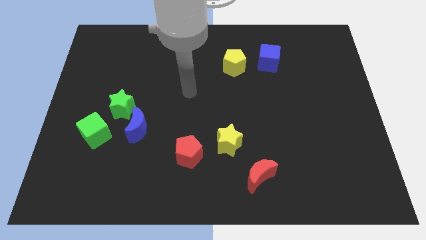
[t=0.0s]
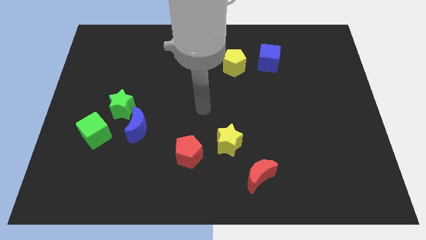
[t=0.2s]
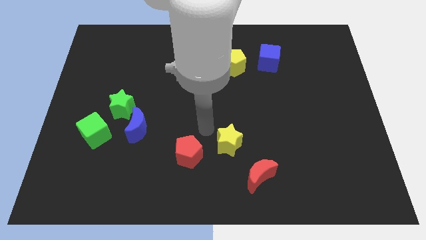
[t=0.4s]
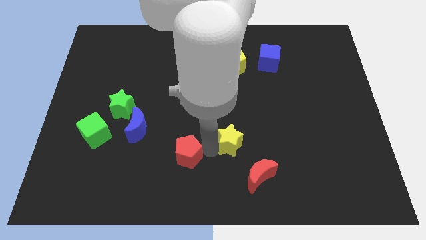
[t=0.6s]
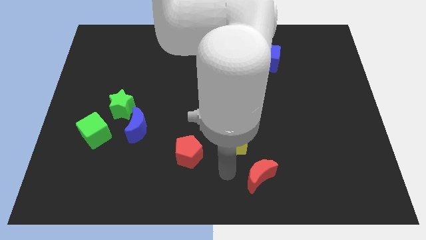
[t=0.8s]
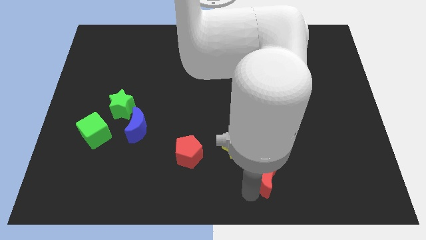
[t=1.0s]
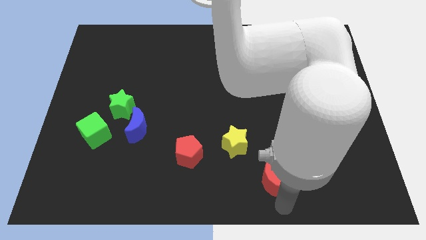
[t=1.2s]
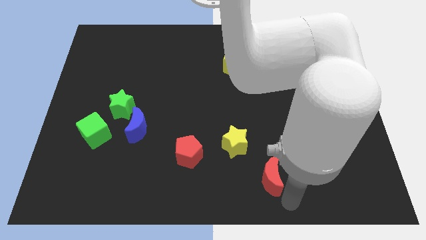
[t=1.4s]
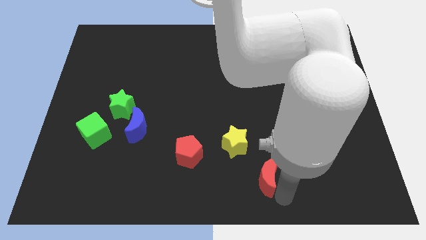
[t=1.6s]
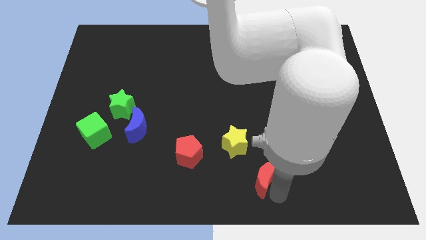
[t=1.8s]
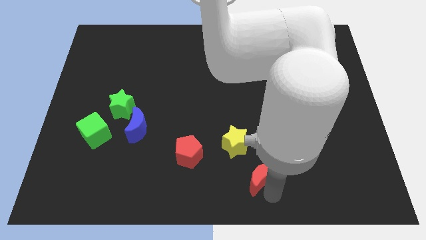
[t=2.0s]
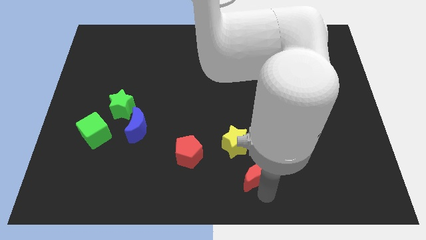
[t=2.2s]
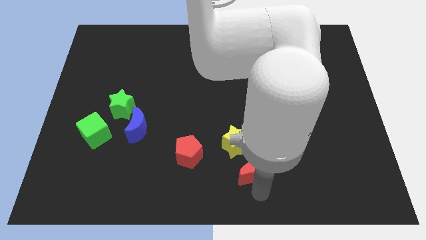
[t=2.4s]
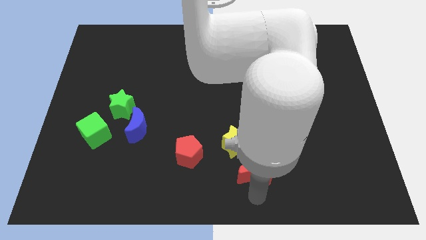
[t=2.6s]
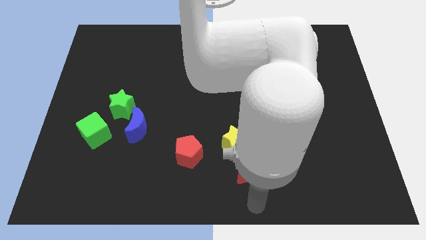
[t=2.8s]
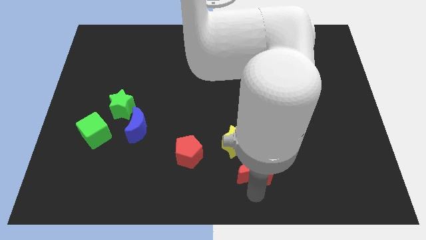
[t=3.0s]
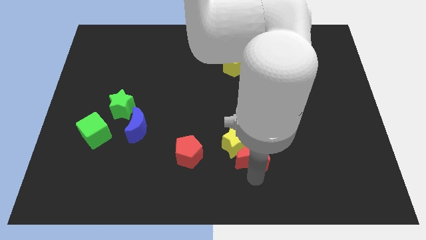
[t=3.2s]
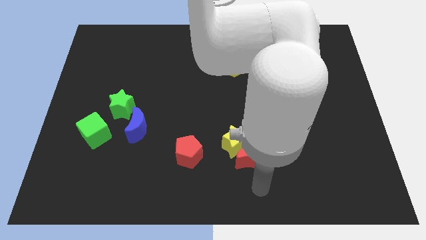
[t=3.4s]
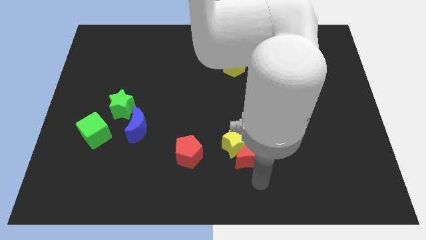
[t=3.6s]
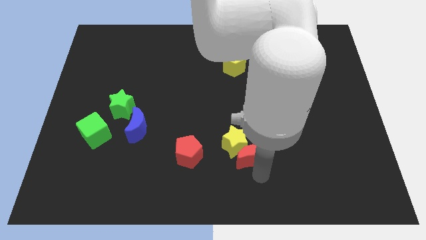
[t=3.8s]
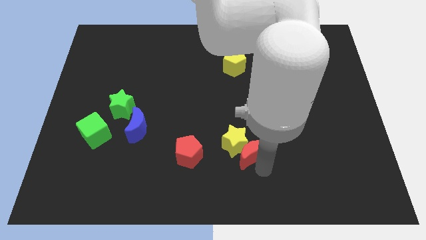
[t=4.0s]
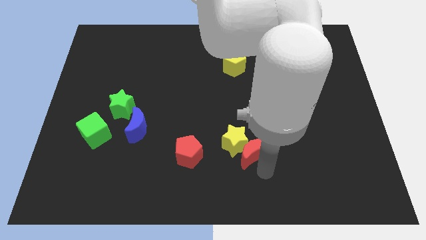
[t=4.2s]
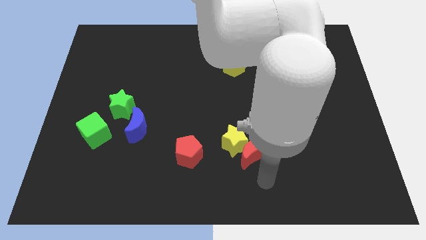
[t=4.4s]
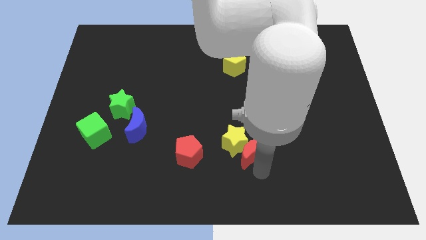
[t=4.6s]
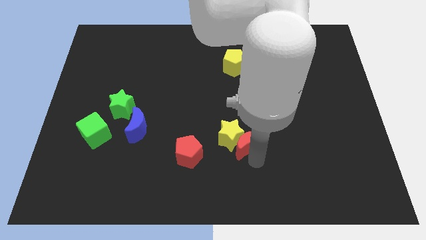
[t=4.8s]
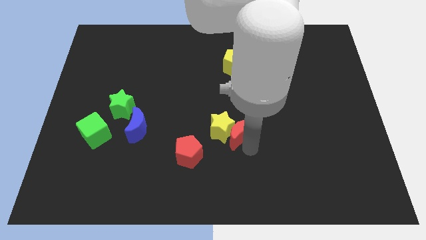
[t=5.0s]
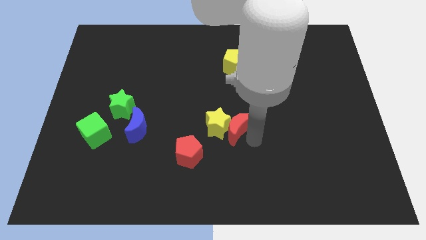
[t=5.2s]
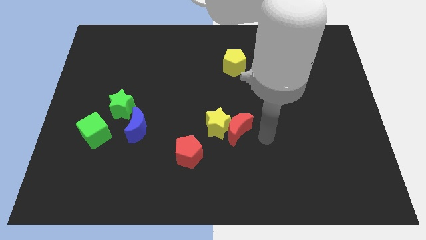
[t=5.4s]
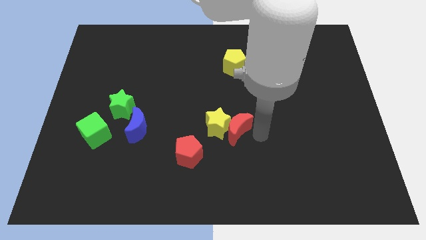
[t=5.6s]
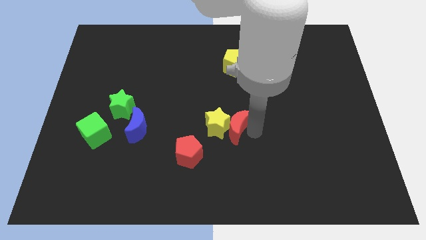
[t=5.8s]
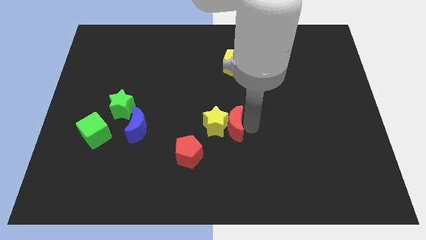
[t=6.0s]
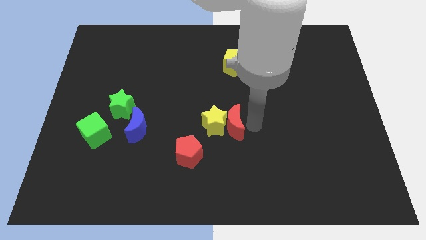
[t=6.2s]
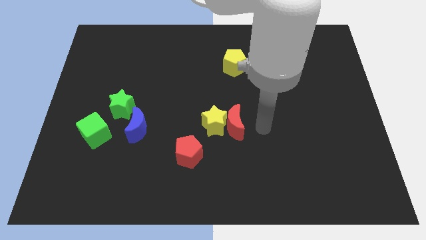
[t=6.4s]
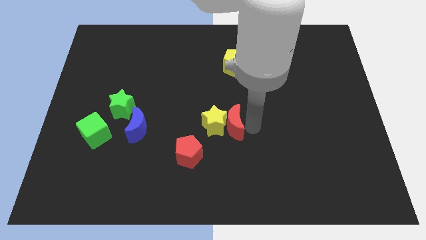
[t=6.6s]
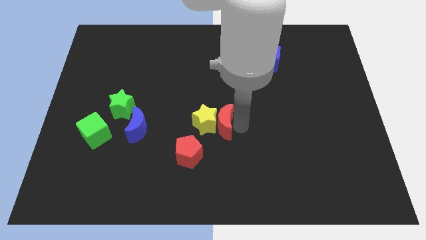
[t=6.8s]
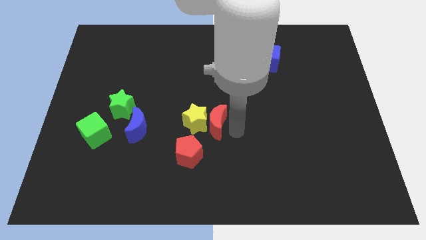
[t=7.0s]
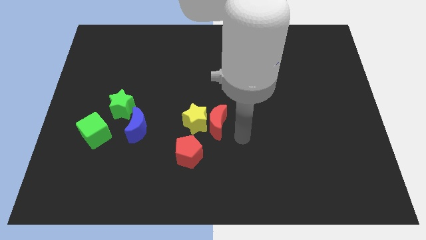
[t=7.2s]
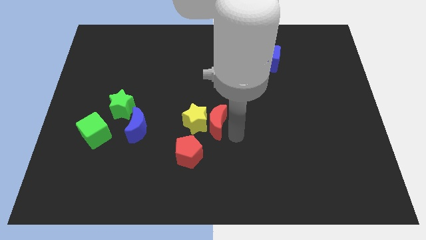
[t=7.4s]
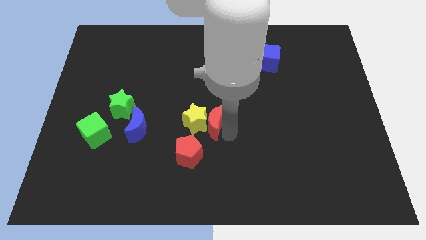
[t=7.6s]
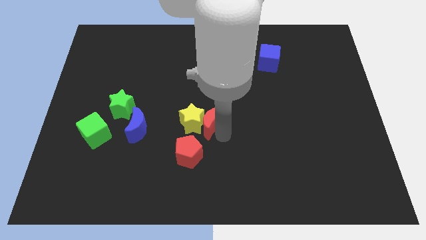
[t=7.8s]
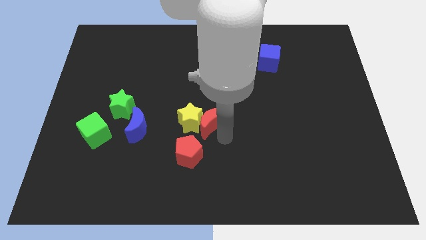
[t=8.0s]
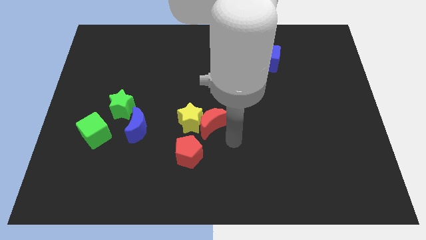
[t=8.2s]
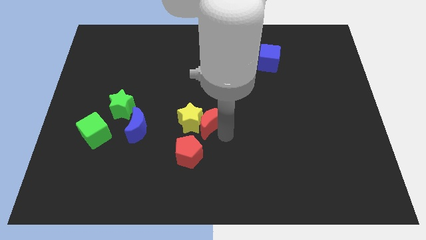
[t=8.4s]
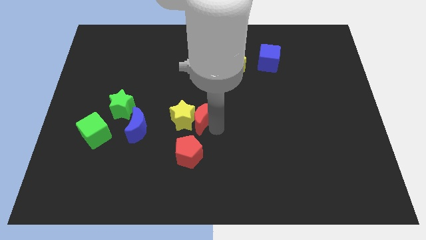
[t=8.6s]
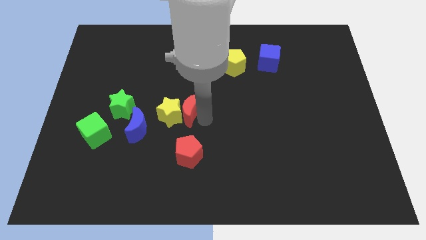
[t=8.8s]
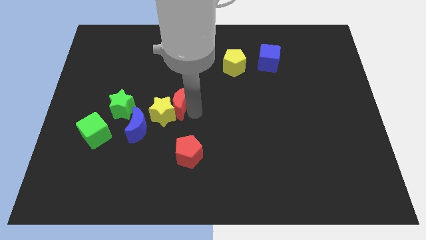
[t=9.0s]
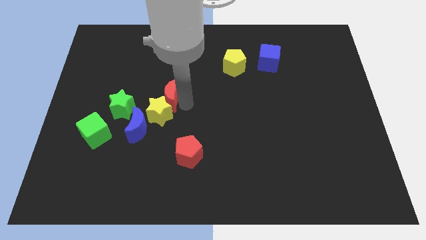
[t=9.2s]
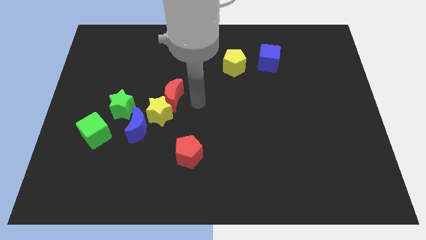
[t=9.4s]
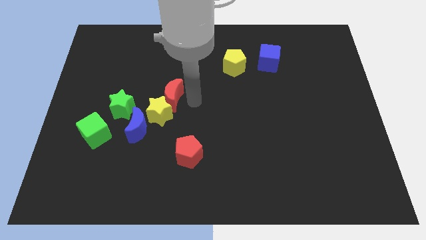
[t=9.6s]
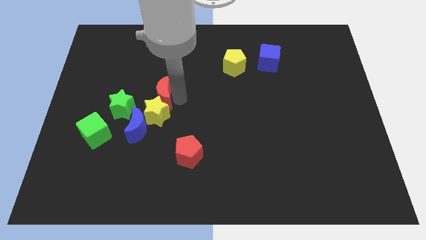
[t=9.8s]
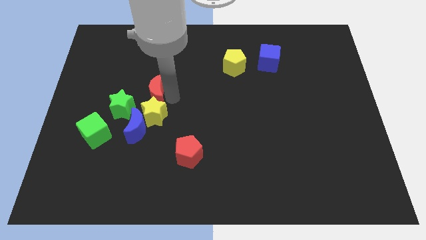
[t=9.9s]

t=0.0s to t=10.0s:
slide the red moon above the blue moon

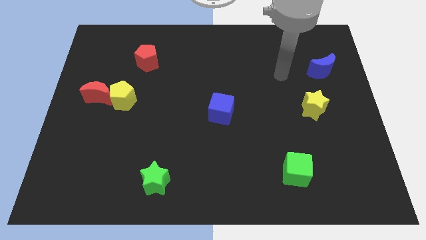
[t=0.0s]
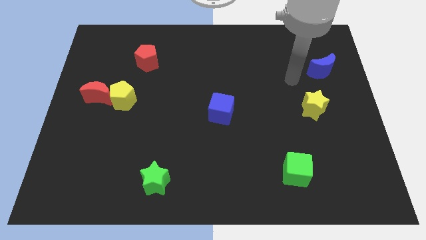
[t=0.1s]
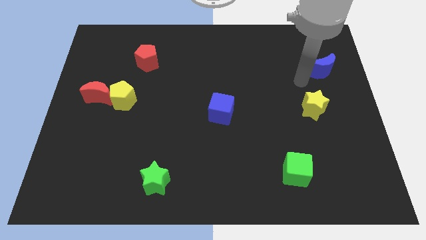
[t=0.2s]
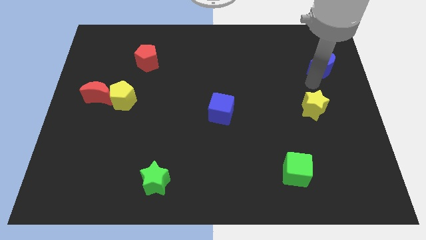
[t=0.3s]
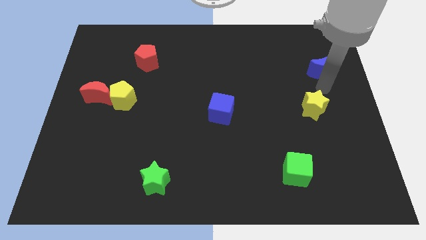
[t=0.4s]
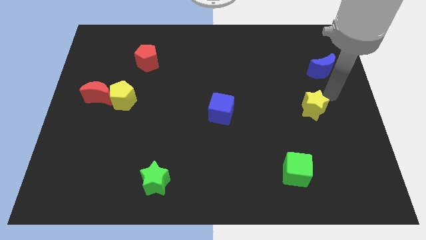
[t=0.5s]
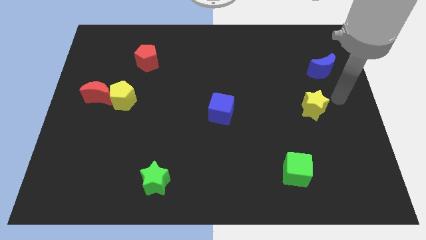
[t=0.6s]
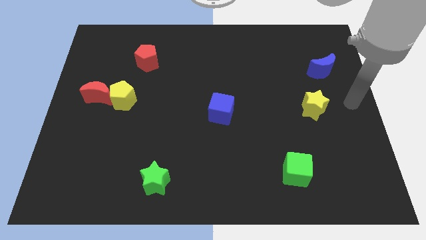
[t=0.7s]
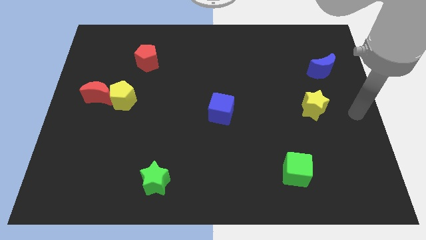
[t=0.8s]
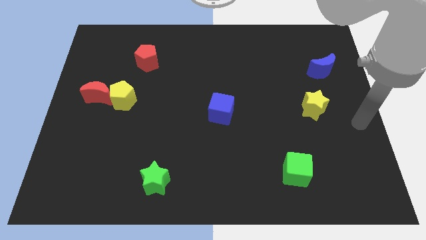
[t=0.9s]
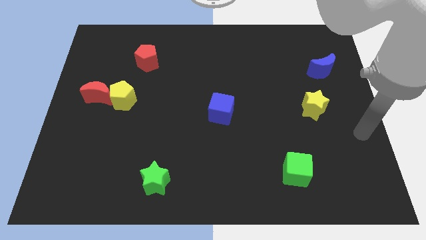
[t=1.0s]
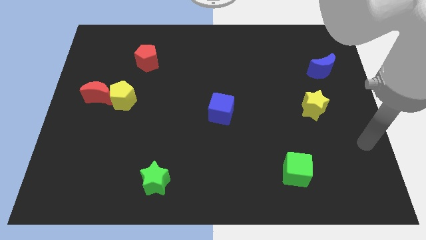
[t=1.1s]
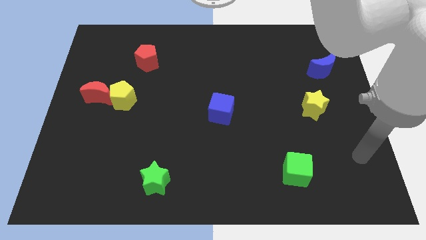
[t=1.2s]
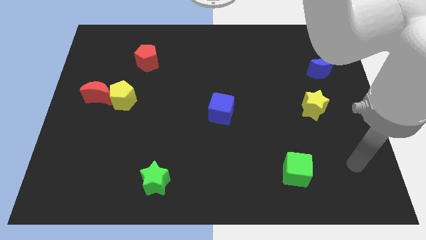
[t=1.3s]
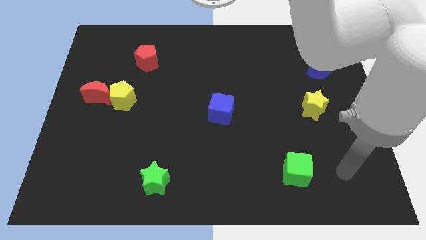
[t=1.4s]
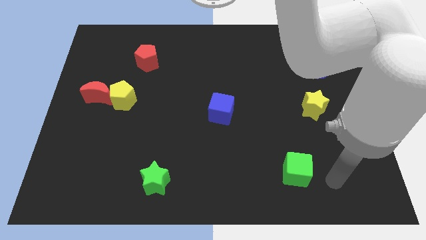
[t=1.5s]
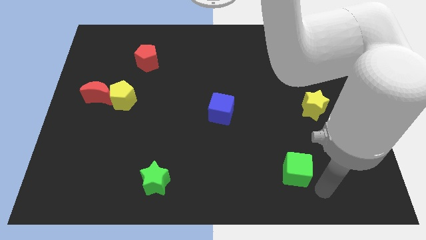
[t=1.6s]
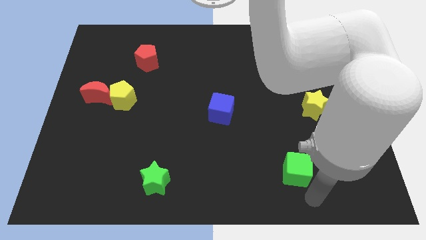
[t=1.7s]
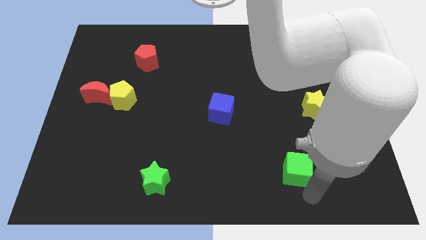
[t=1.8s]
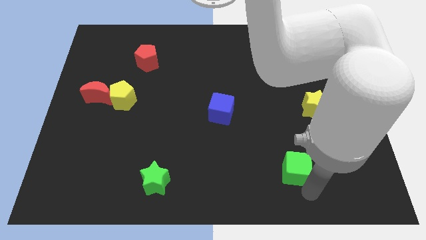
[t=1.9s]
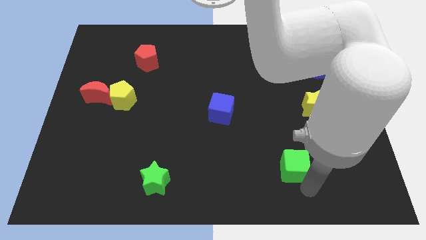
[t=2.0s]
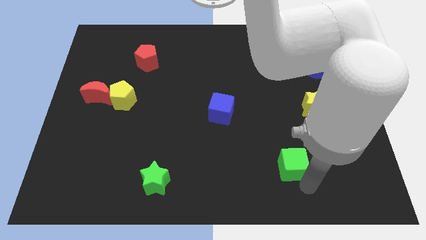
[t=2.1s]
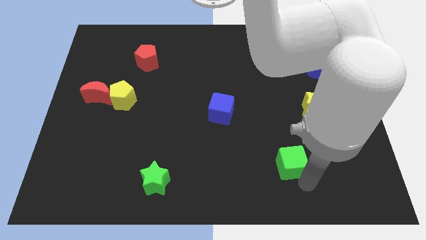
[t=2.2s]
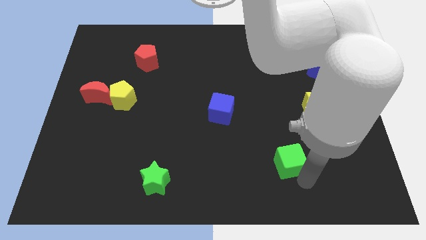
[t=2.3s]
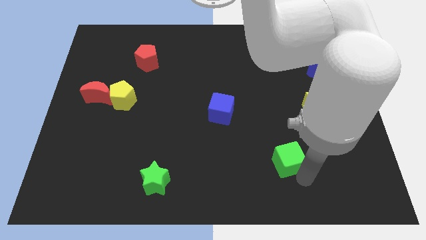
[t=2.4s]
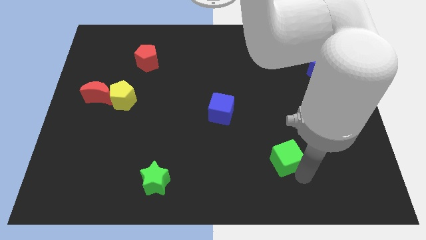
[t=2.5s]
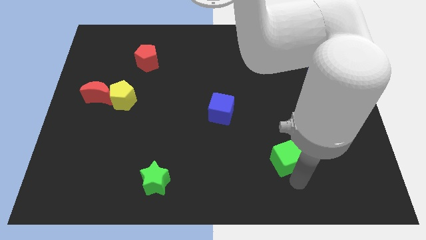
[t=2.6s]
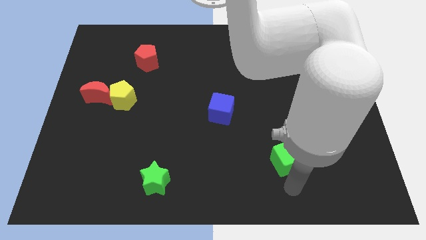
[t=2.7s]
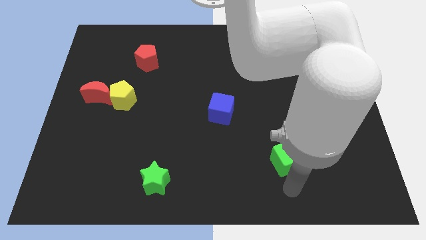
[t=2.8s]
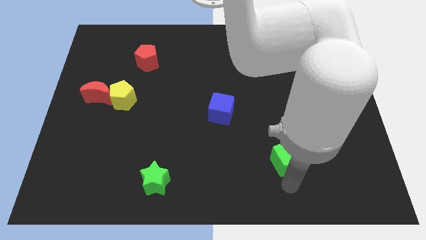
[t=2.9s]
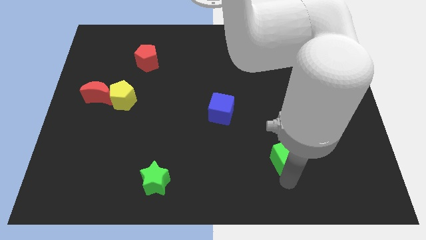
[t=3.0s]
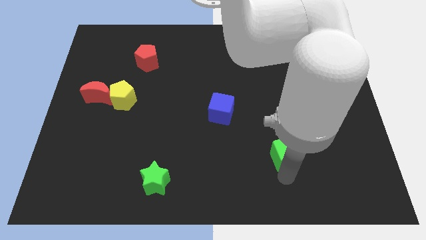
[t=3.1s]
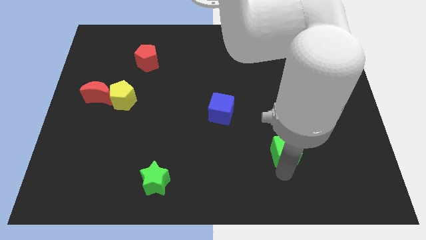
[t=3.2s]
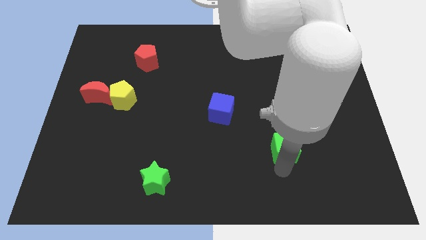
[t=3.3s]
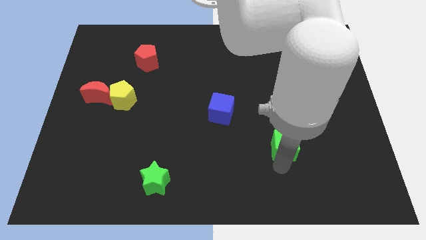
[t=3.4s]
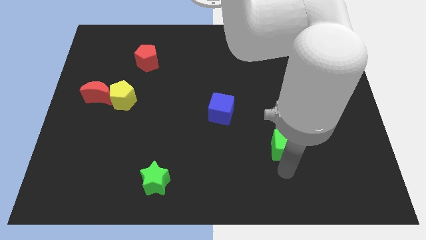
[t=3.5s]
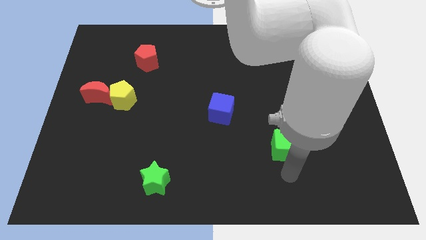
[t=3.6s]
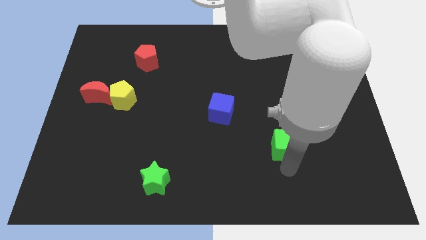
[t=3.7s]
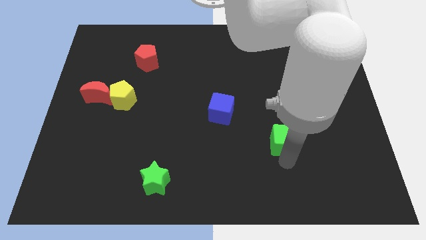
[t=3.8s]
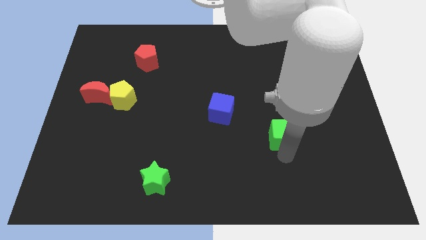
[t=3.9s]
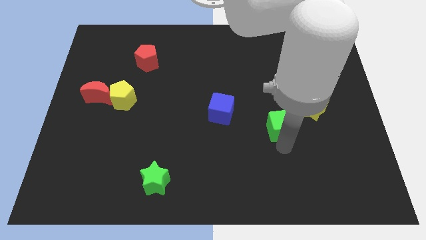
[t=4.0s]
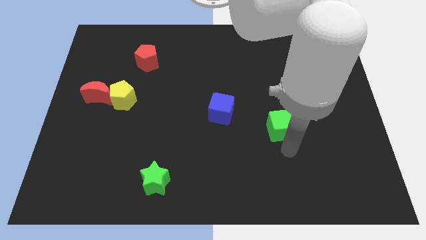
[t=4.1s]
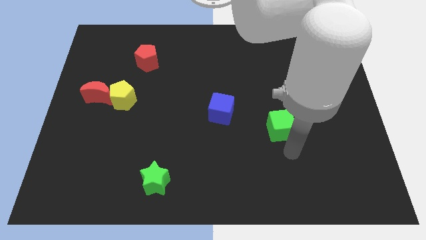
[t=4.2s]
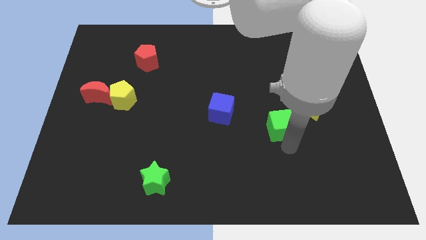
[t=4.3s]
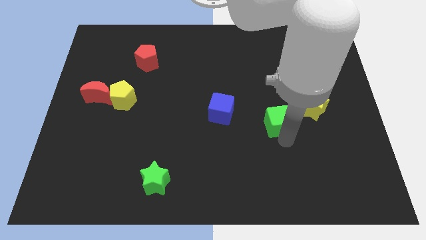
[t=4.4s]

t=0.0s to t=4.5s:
put the green cube just left of the yellow star
